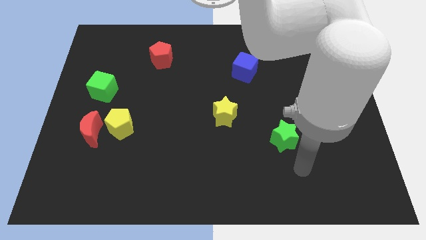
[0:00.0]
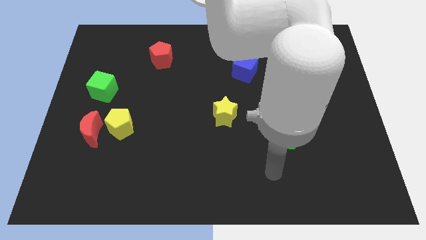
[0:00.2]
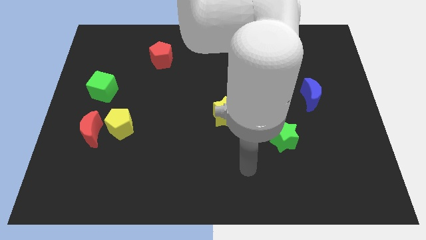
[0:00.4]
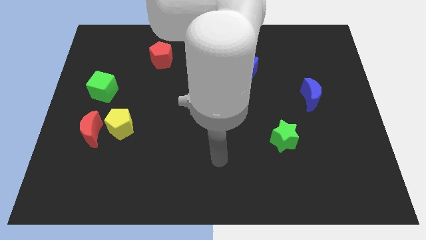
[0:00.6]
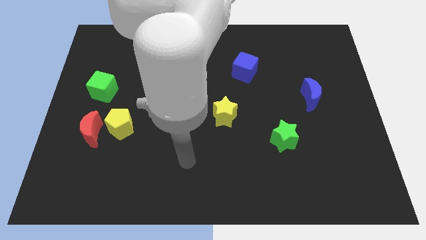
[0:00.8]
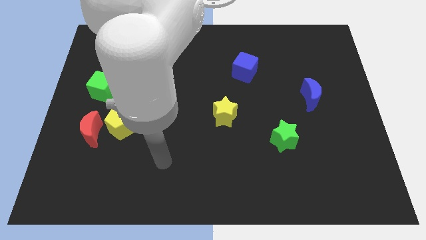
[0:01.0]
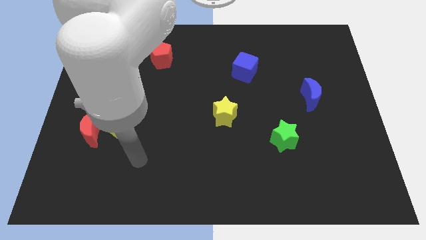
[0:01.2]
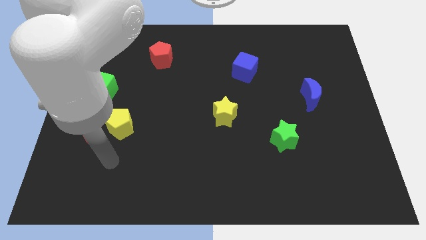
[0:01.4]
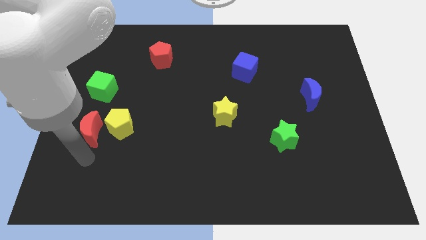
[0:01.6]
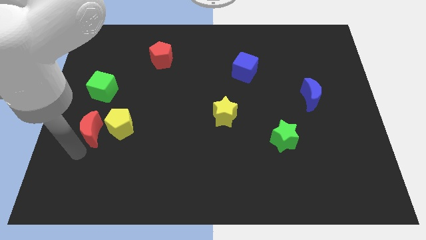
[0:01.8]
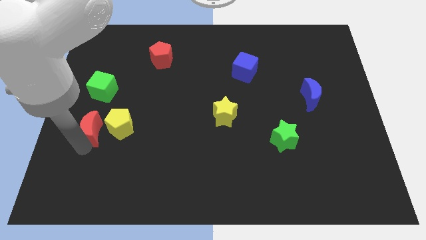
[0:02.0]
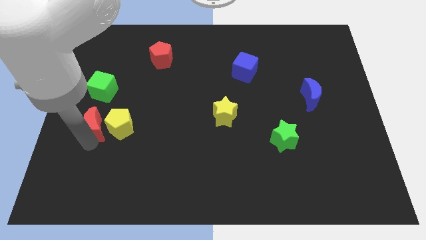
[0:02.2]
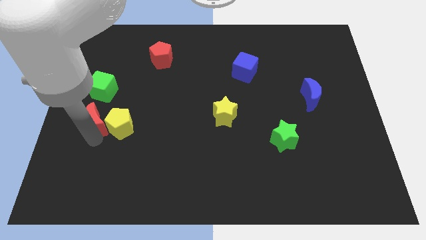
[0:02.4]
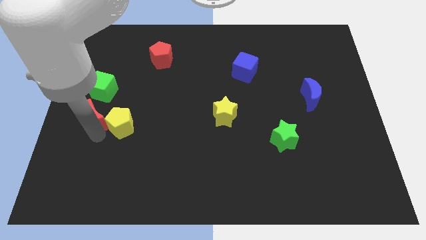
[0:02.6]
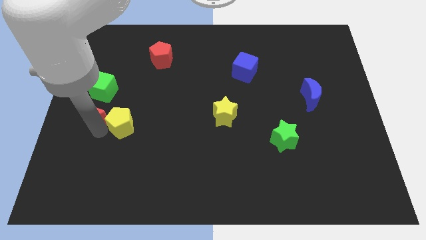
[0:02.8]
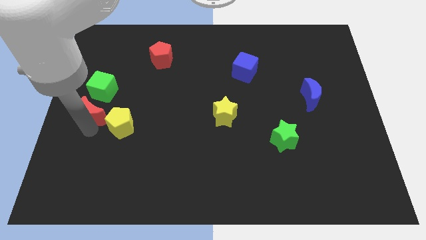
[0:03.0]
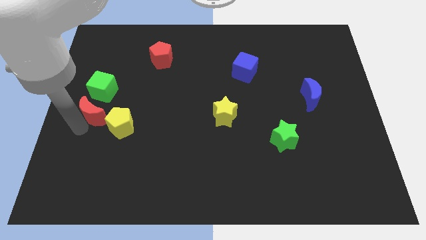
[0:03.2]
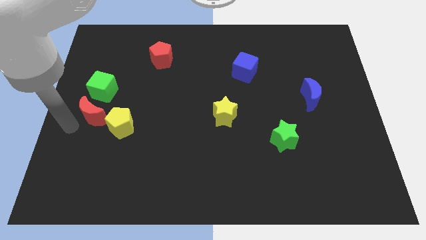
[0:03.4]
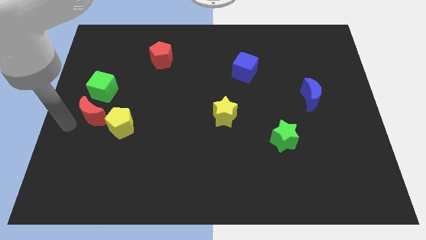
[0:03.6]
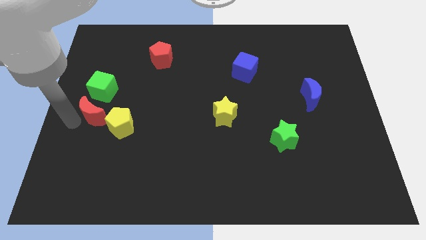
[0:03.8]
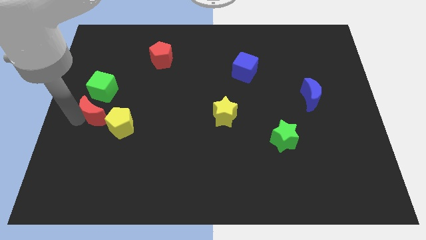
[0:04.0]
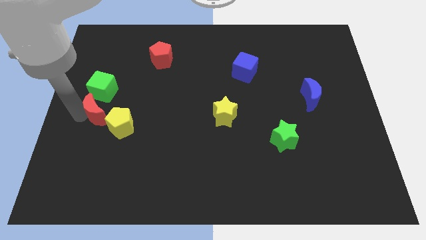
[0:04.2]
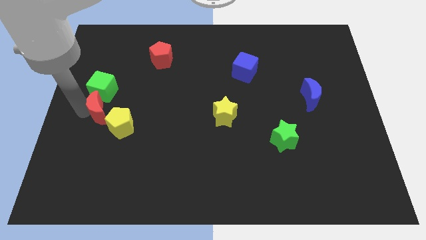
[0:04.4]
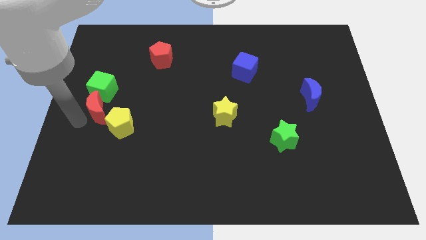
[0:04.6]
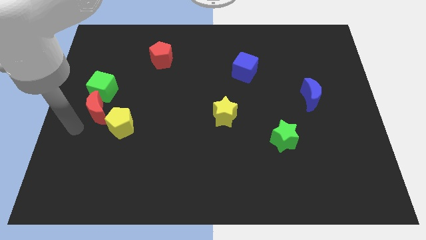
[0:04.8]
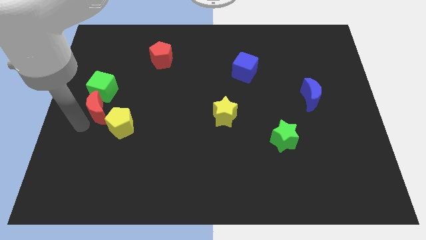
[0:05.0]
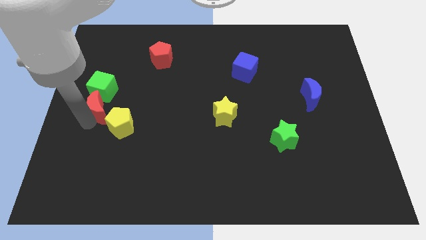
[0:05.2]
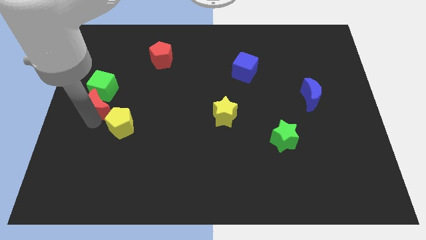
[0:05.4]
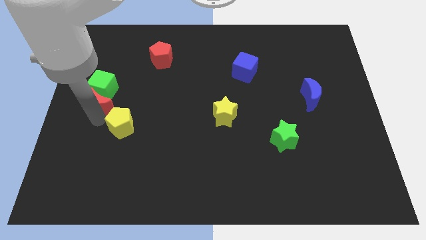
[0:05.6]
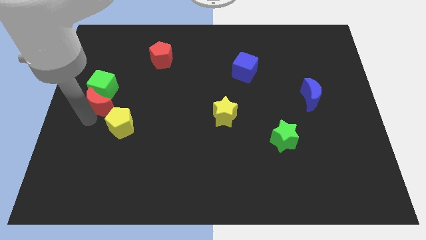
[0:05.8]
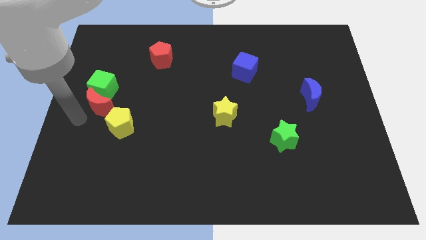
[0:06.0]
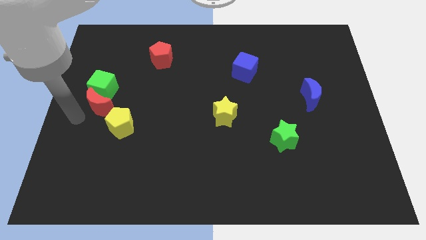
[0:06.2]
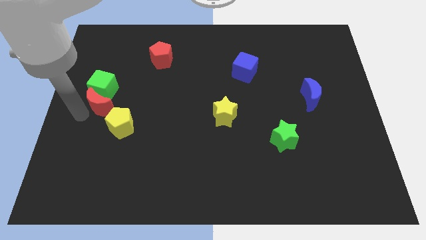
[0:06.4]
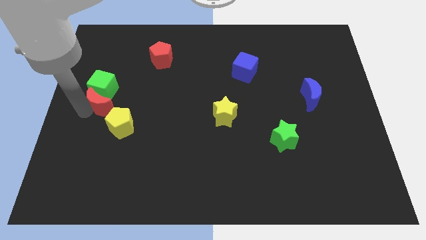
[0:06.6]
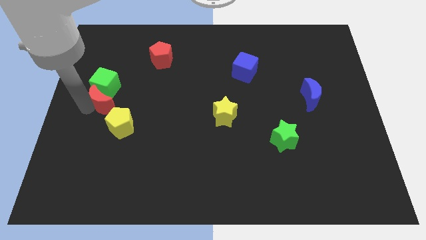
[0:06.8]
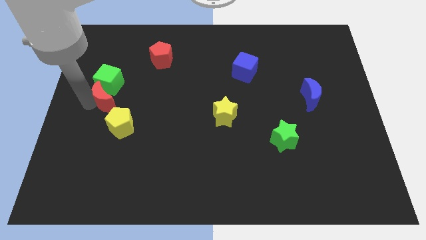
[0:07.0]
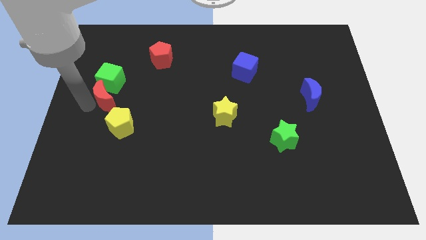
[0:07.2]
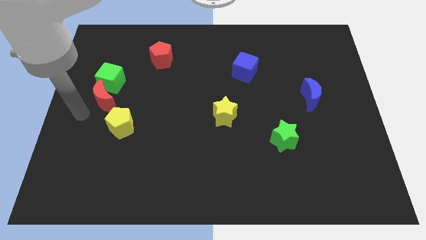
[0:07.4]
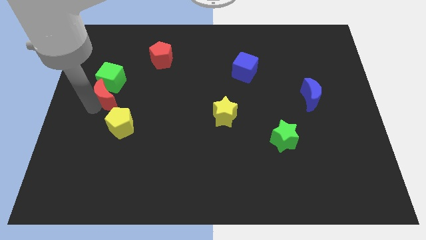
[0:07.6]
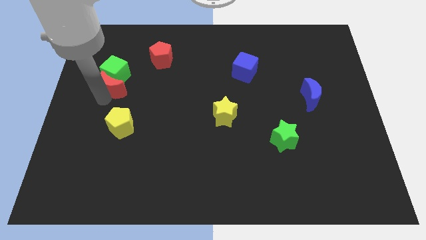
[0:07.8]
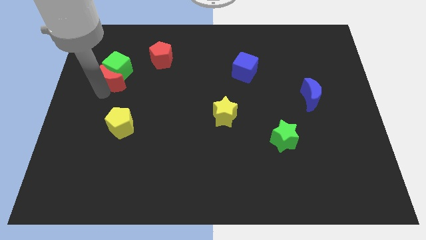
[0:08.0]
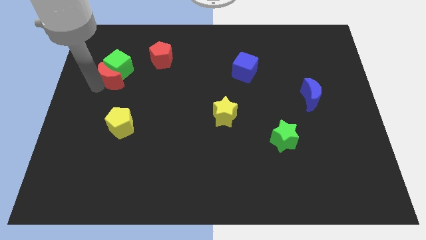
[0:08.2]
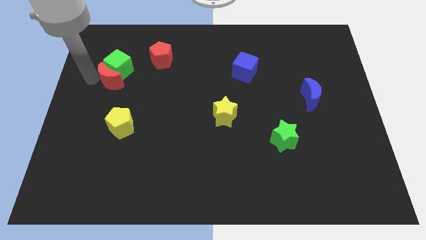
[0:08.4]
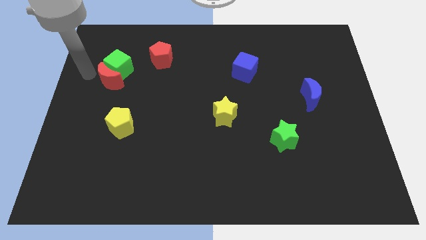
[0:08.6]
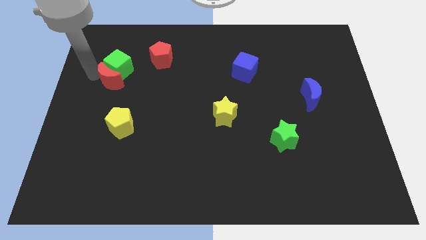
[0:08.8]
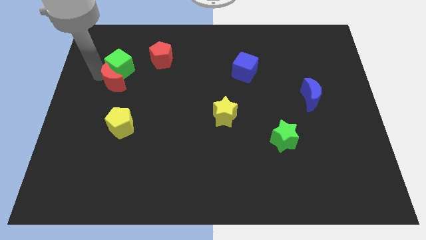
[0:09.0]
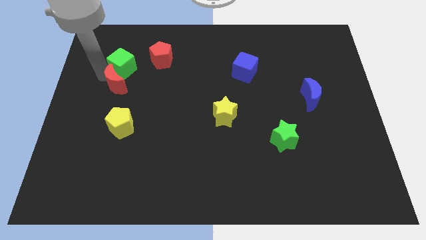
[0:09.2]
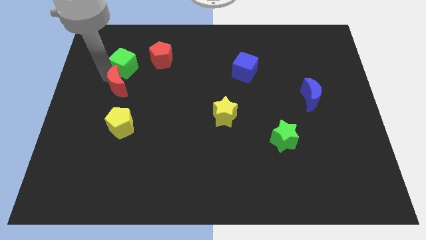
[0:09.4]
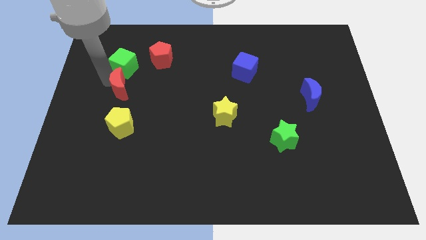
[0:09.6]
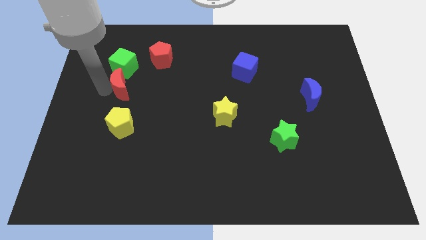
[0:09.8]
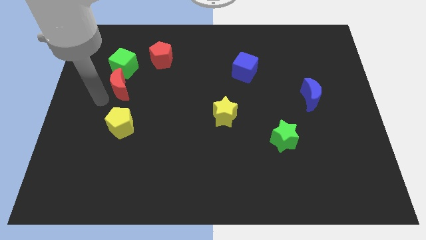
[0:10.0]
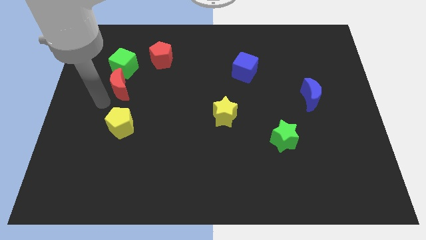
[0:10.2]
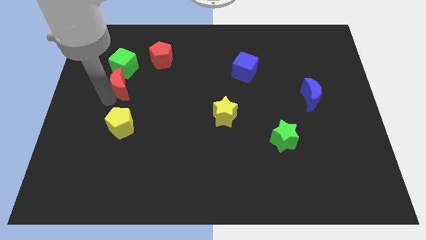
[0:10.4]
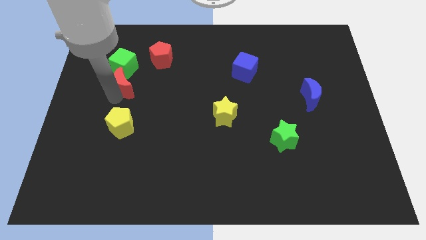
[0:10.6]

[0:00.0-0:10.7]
slide the red moon diagonally down and to the left of the red pentagon

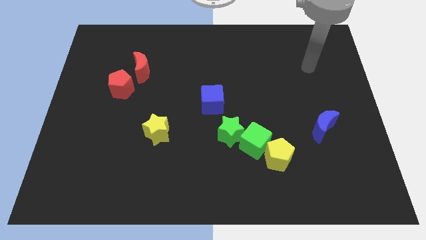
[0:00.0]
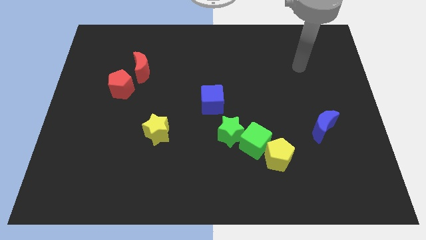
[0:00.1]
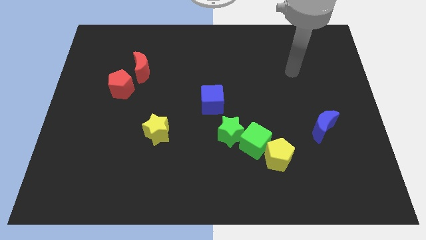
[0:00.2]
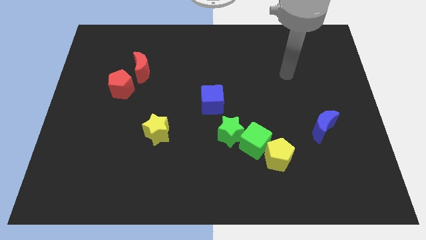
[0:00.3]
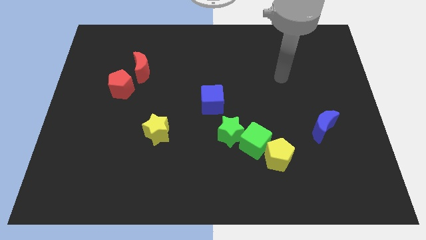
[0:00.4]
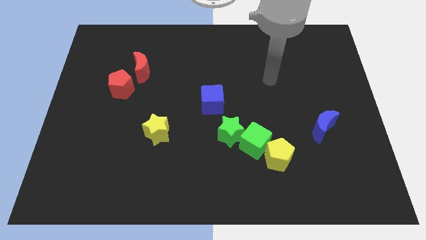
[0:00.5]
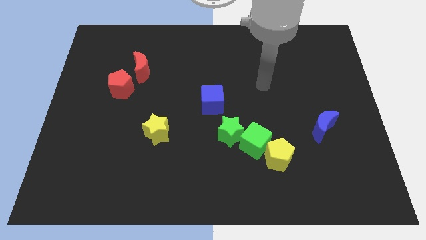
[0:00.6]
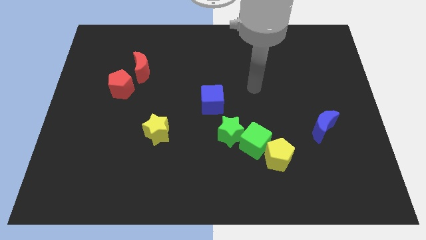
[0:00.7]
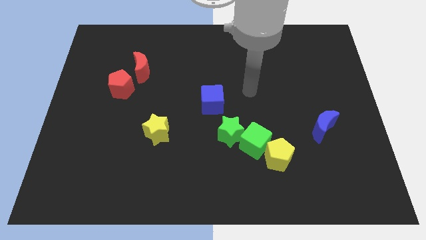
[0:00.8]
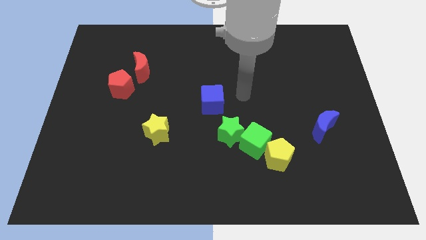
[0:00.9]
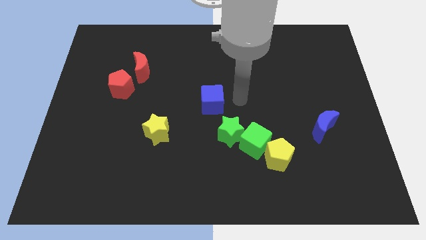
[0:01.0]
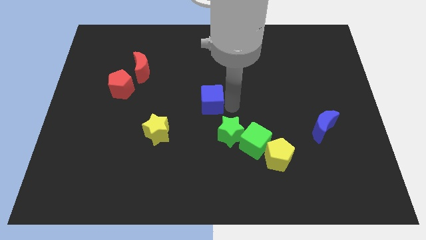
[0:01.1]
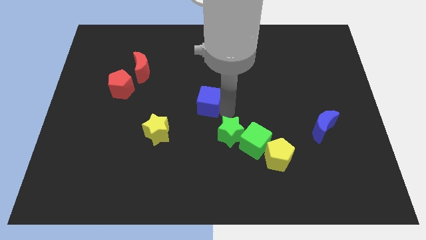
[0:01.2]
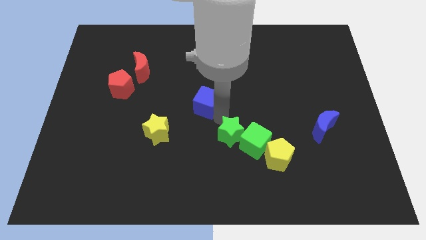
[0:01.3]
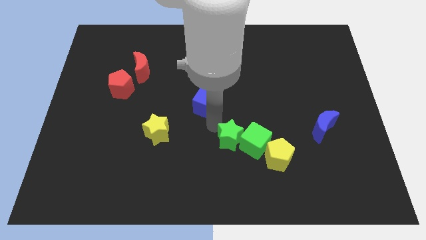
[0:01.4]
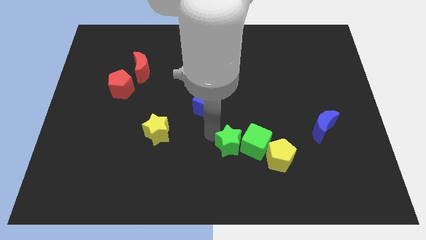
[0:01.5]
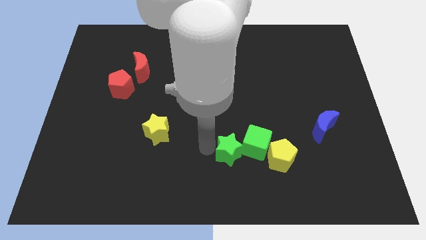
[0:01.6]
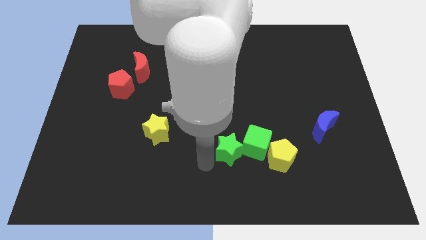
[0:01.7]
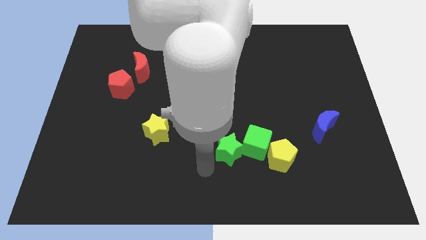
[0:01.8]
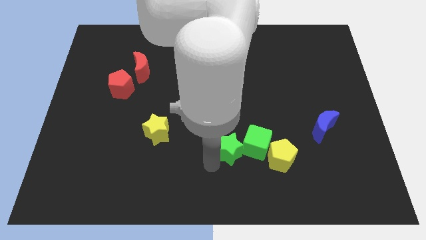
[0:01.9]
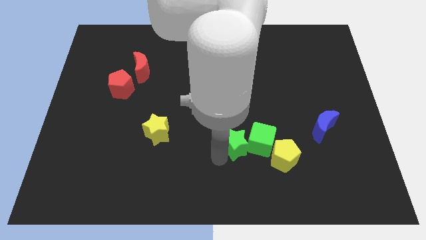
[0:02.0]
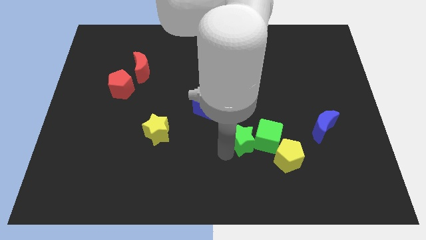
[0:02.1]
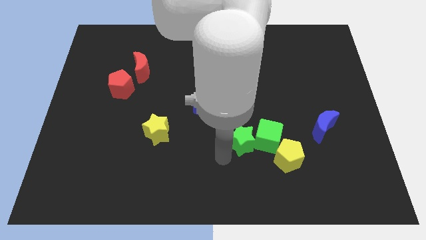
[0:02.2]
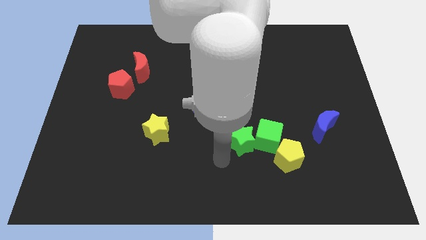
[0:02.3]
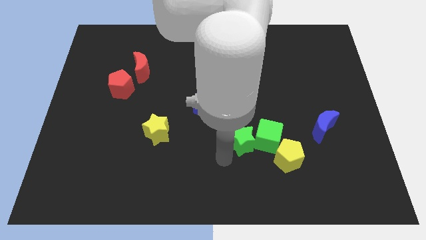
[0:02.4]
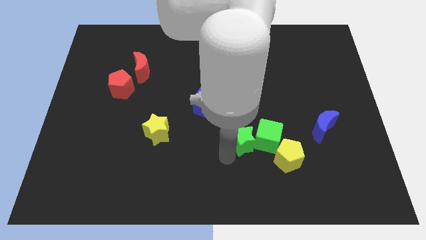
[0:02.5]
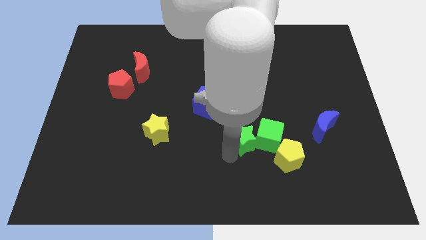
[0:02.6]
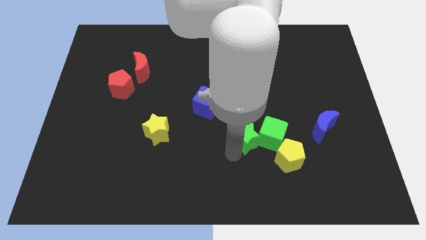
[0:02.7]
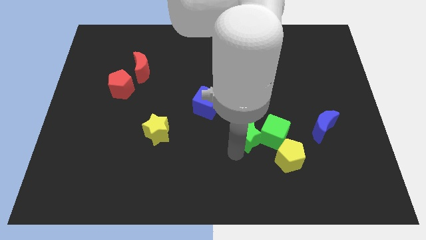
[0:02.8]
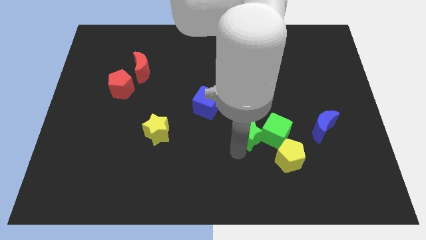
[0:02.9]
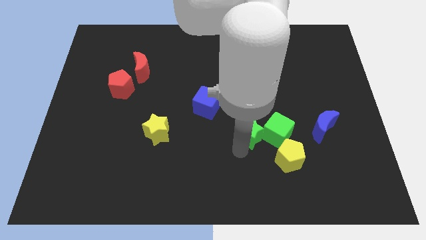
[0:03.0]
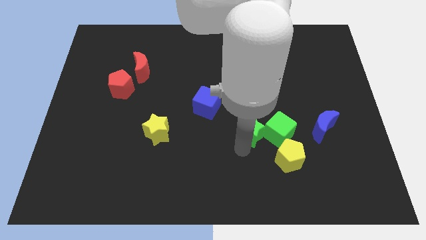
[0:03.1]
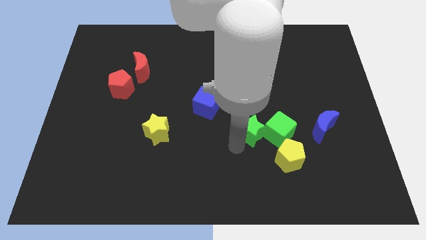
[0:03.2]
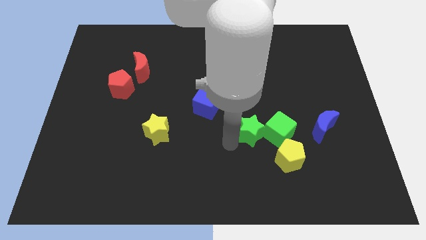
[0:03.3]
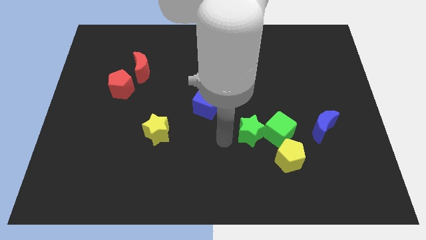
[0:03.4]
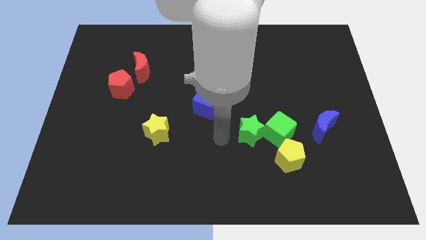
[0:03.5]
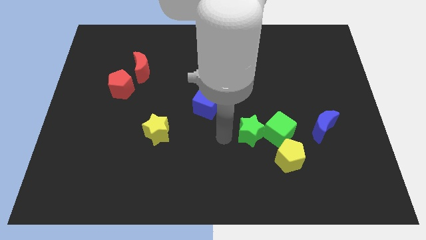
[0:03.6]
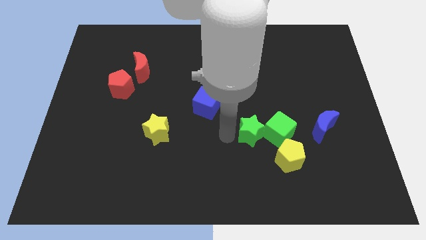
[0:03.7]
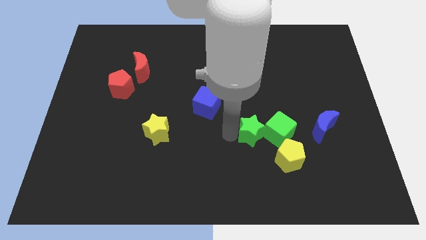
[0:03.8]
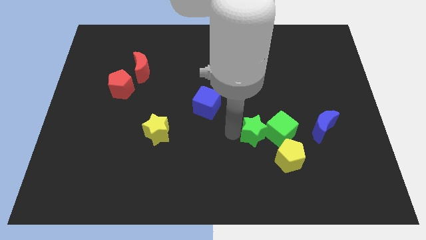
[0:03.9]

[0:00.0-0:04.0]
put the green star just left of the blue moon
